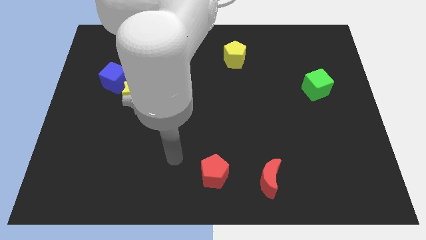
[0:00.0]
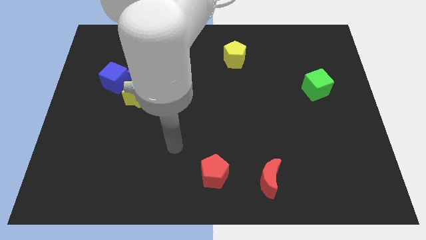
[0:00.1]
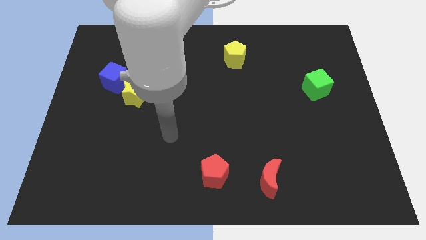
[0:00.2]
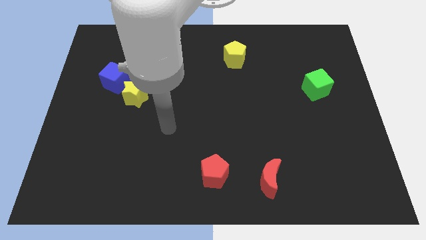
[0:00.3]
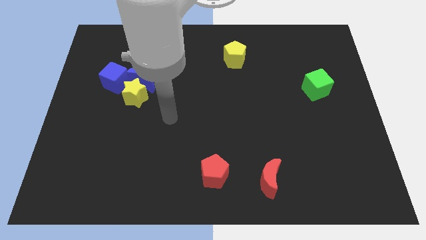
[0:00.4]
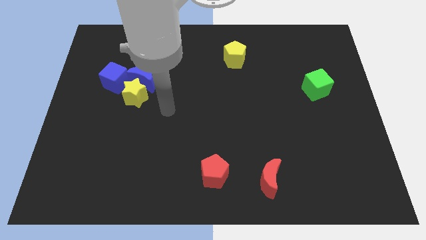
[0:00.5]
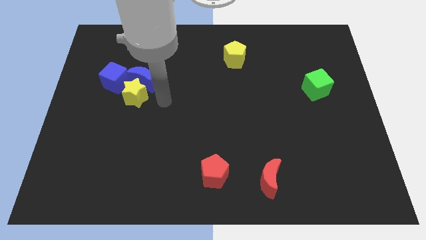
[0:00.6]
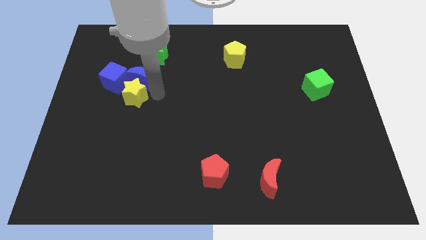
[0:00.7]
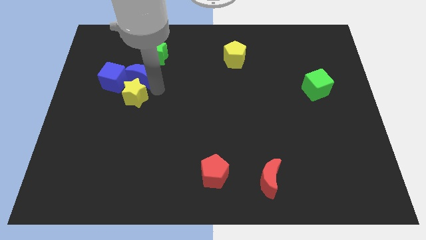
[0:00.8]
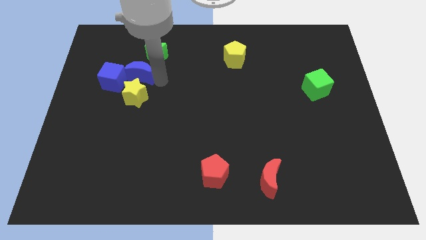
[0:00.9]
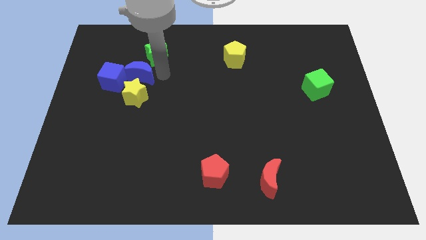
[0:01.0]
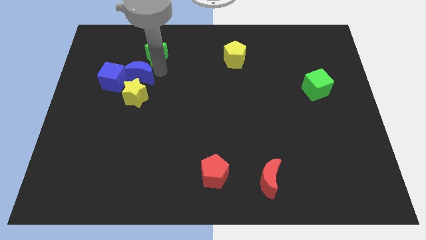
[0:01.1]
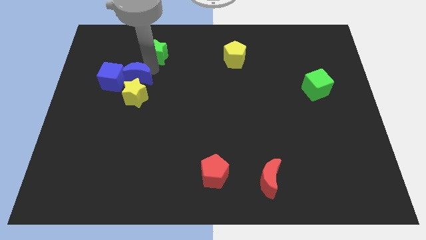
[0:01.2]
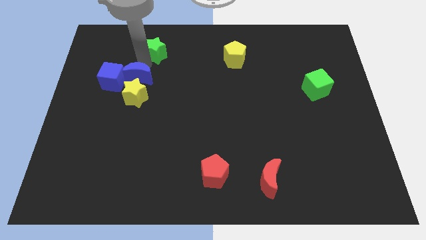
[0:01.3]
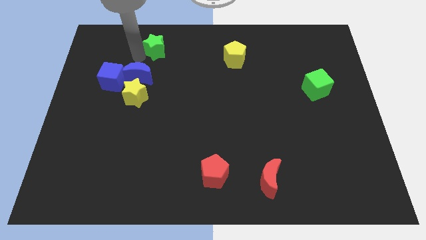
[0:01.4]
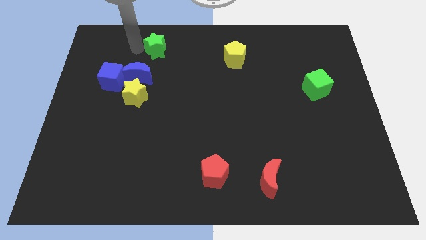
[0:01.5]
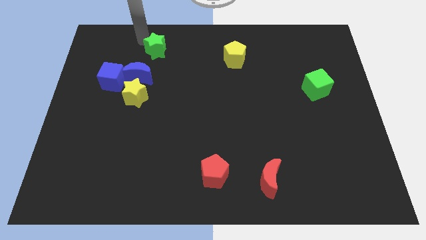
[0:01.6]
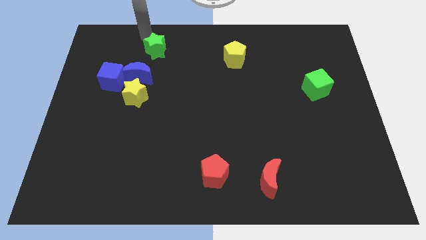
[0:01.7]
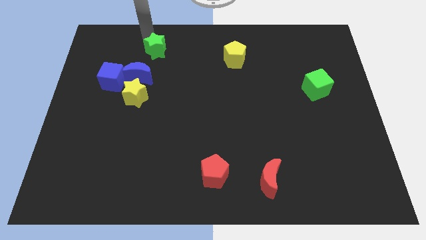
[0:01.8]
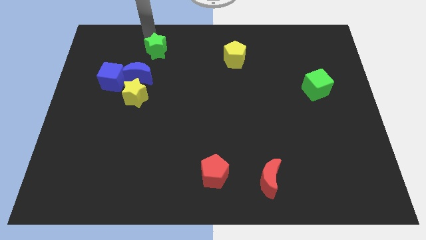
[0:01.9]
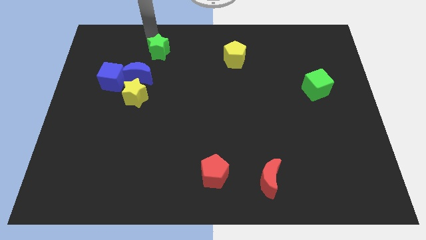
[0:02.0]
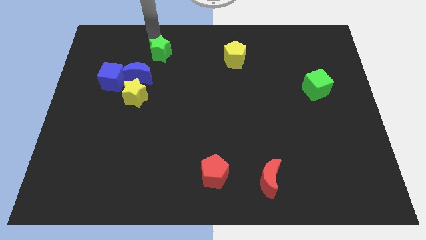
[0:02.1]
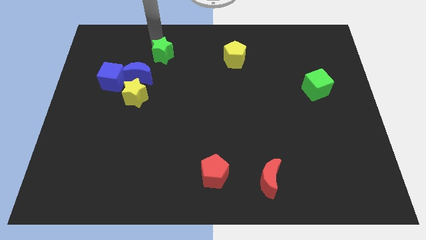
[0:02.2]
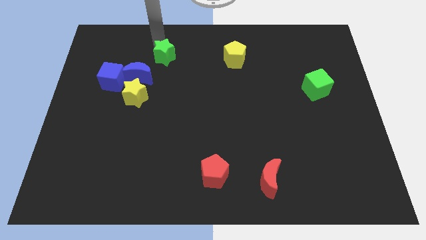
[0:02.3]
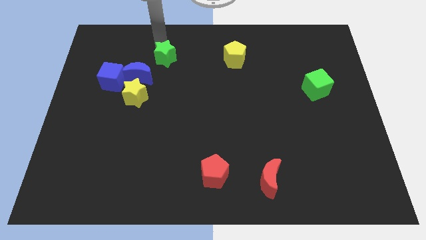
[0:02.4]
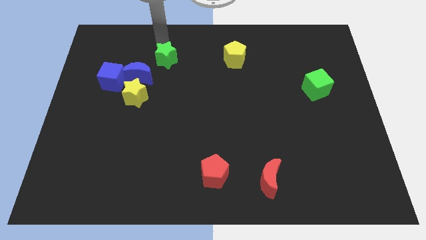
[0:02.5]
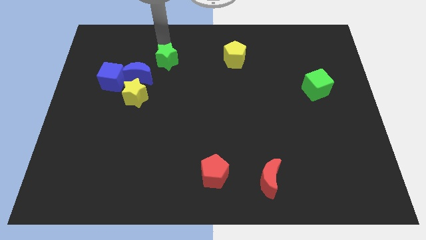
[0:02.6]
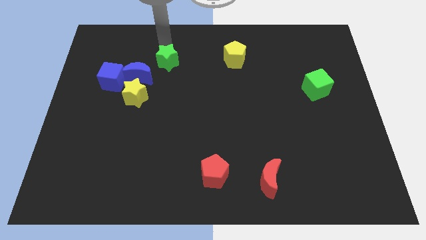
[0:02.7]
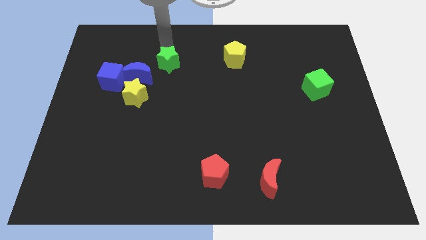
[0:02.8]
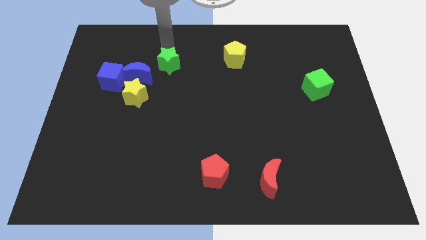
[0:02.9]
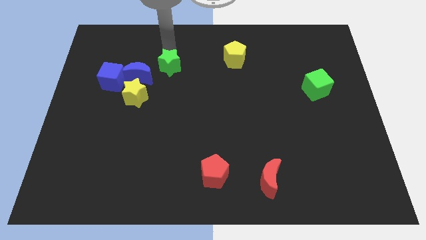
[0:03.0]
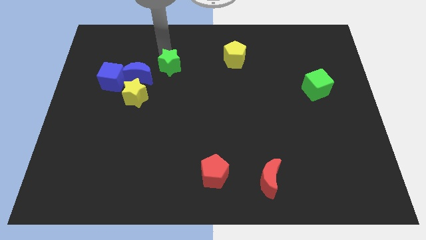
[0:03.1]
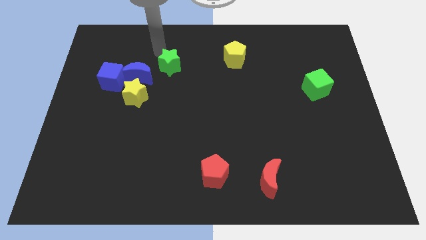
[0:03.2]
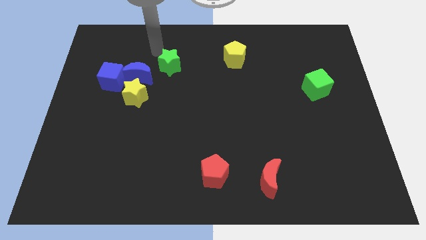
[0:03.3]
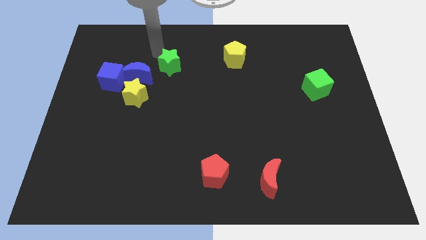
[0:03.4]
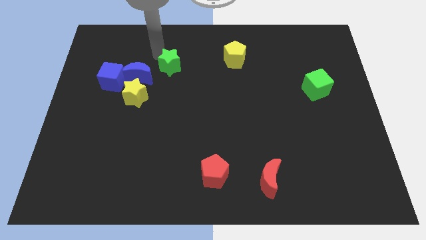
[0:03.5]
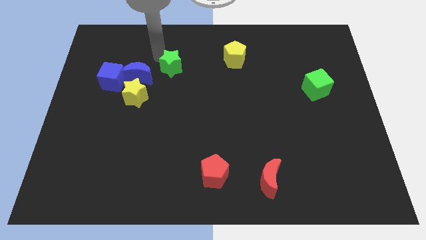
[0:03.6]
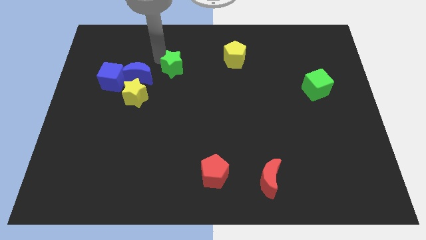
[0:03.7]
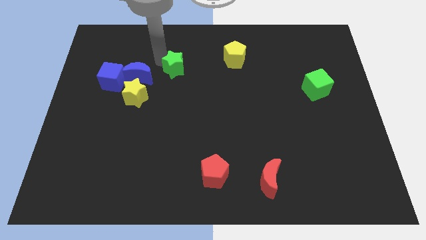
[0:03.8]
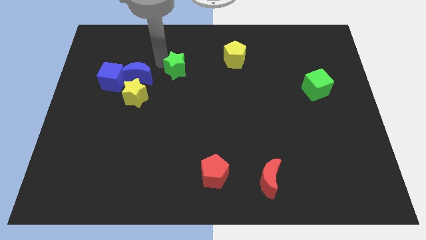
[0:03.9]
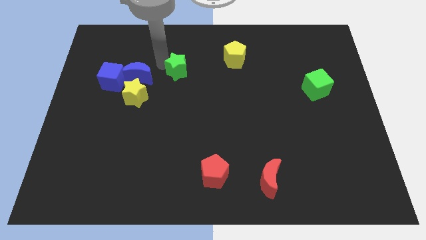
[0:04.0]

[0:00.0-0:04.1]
slide the green star down and then to the right a little

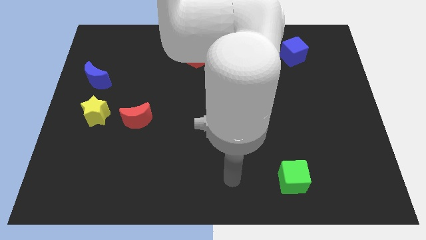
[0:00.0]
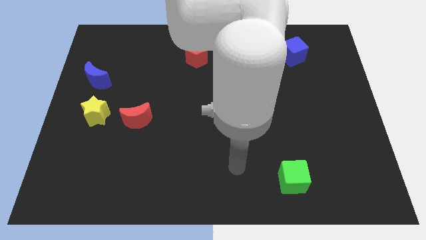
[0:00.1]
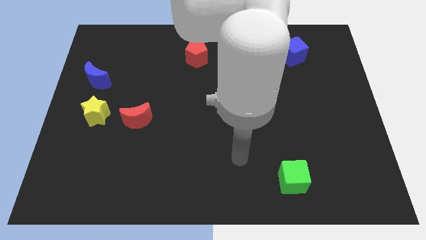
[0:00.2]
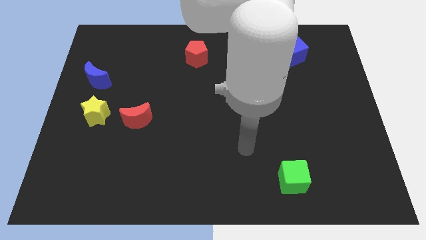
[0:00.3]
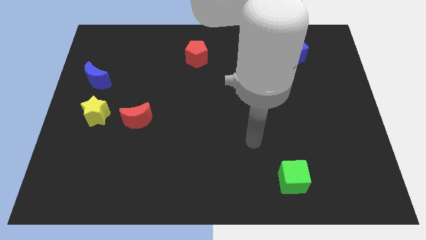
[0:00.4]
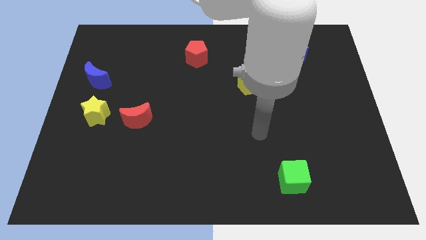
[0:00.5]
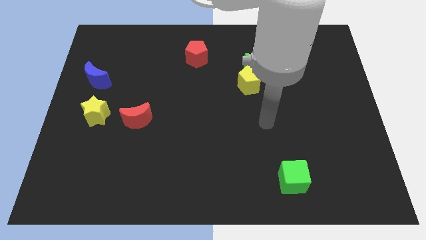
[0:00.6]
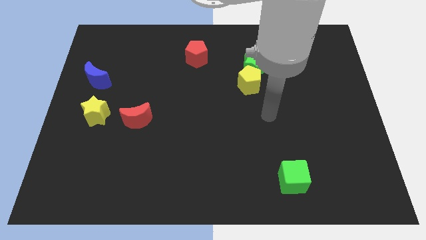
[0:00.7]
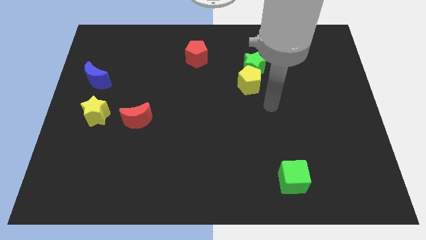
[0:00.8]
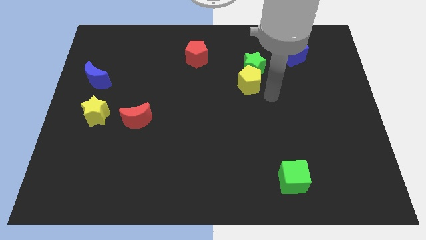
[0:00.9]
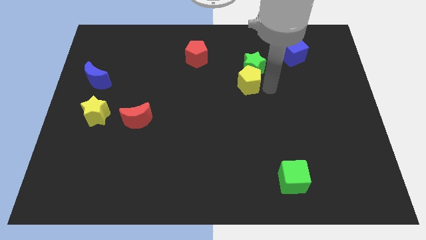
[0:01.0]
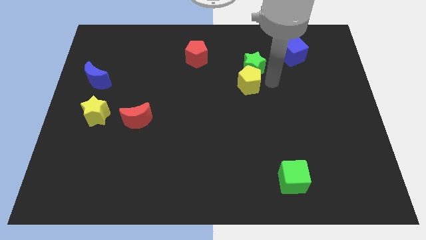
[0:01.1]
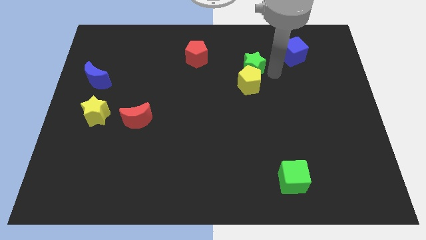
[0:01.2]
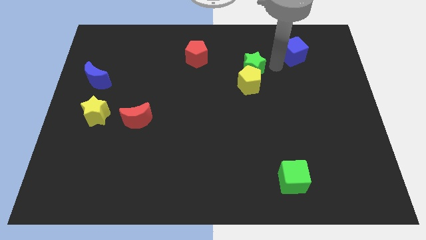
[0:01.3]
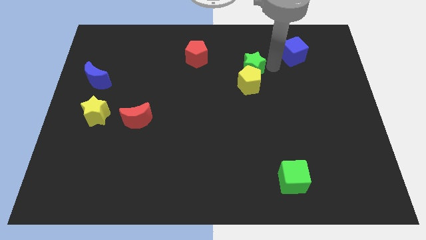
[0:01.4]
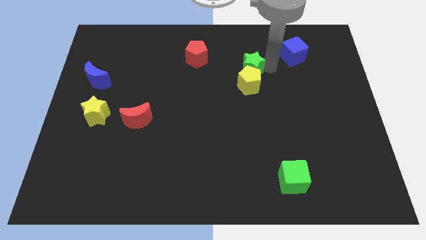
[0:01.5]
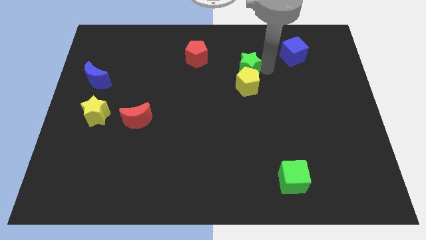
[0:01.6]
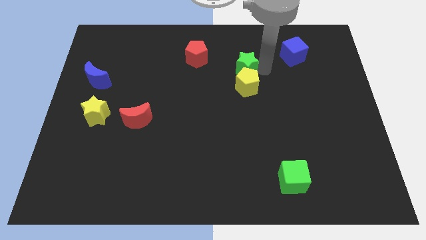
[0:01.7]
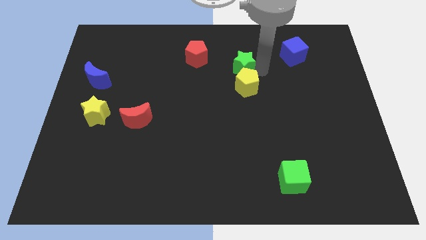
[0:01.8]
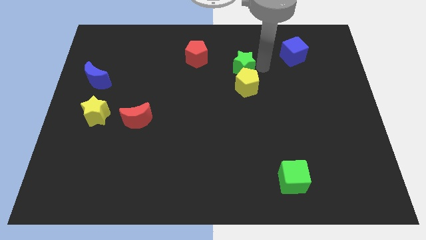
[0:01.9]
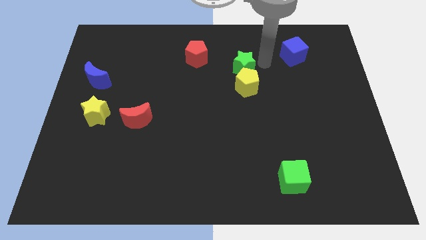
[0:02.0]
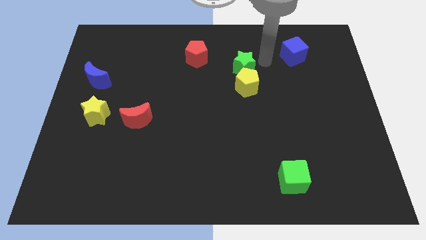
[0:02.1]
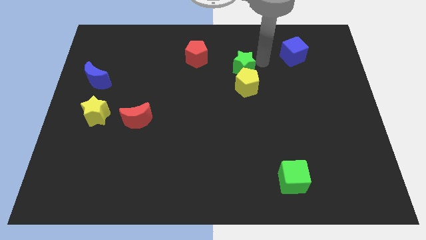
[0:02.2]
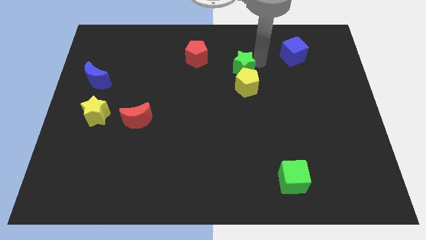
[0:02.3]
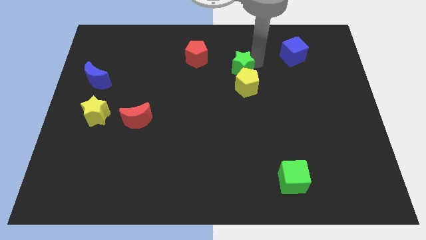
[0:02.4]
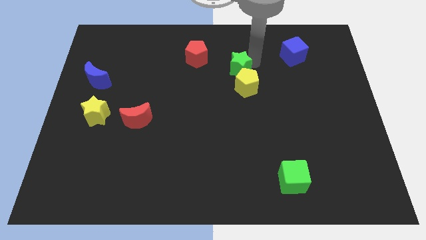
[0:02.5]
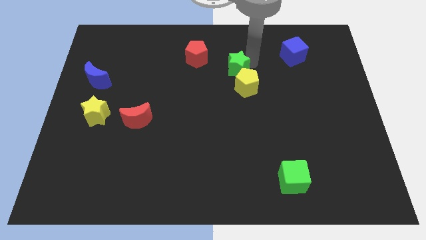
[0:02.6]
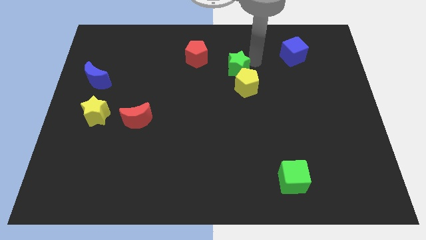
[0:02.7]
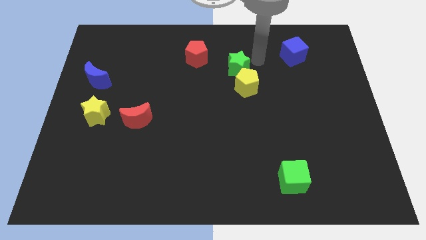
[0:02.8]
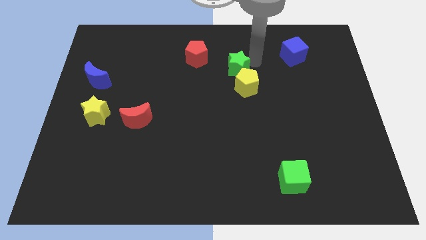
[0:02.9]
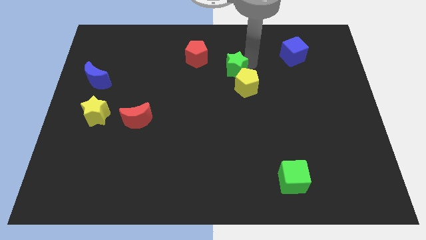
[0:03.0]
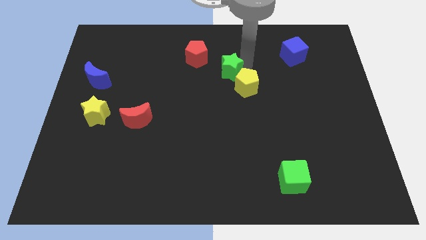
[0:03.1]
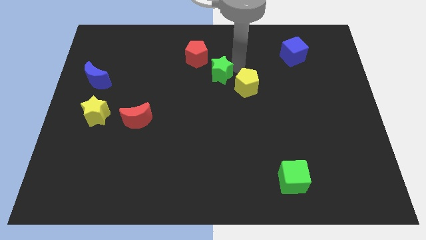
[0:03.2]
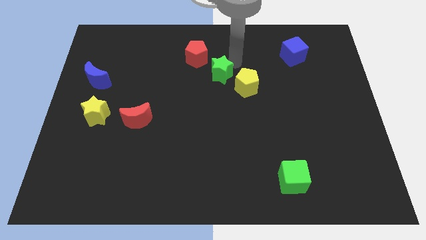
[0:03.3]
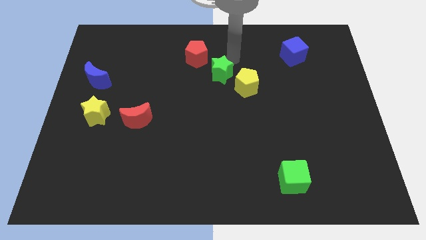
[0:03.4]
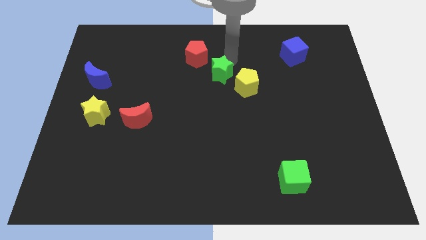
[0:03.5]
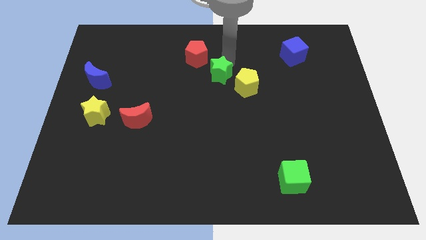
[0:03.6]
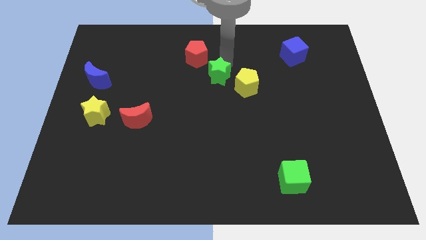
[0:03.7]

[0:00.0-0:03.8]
push the green star diagonally downwards and left a little
